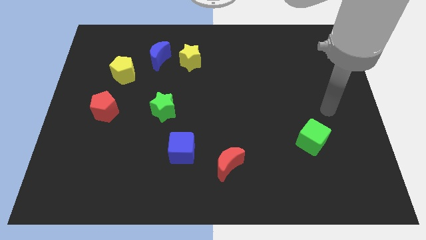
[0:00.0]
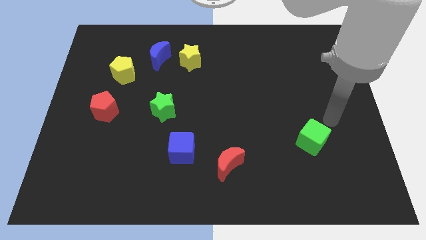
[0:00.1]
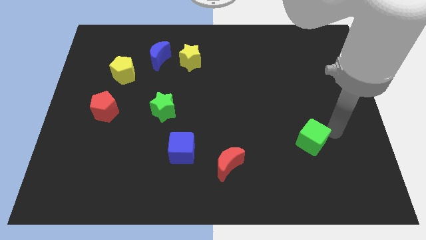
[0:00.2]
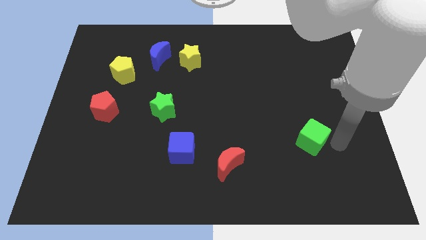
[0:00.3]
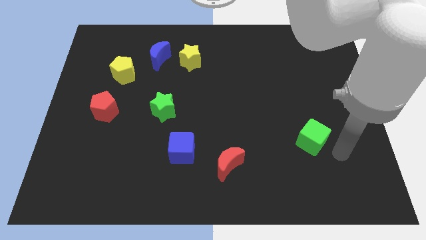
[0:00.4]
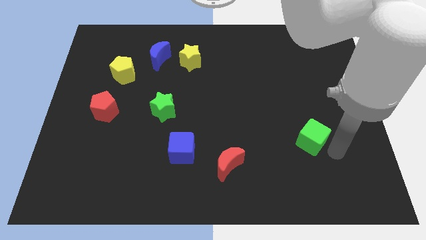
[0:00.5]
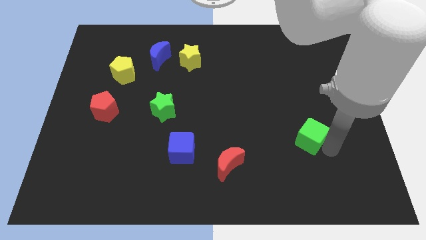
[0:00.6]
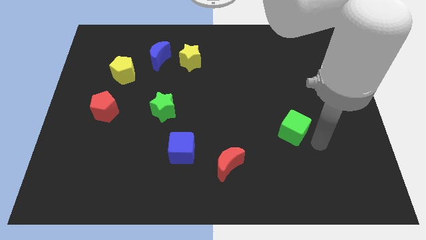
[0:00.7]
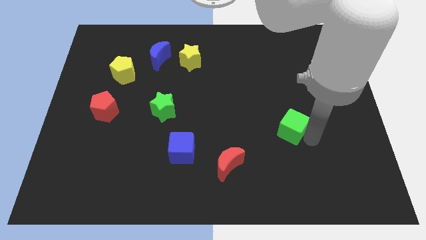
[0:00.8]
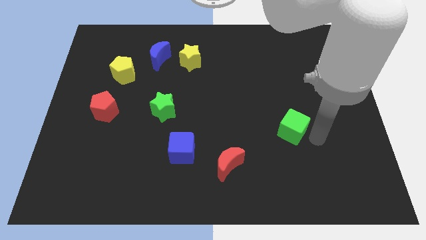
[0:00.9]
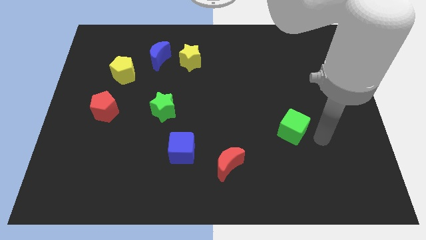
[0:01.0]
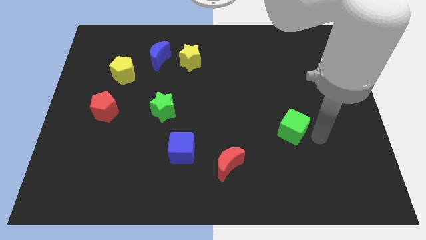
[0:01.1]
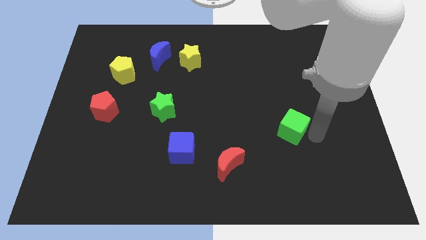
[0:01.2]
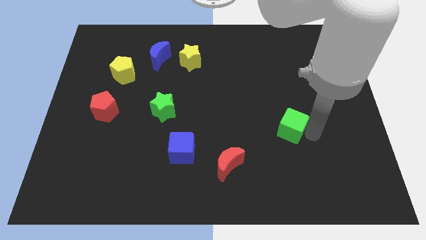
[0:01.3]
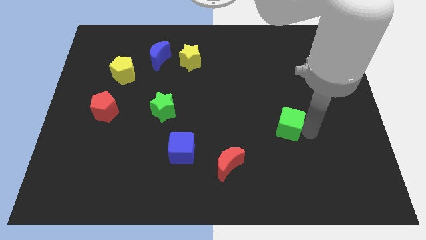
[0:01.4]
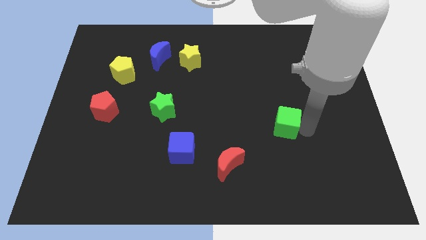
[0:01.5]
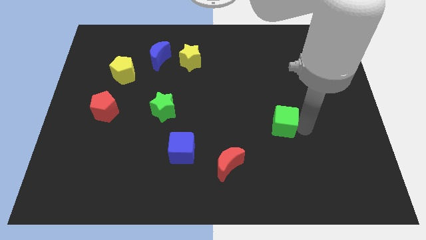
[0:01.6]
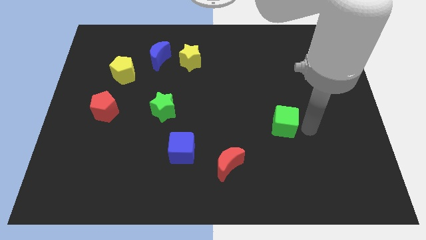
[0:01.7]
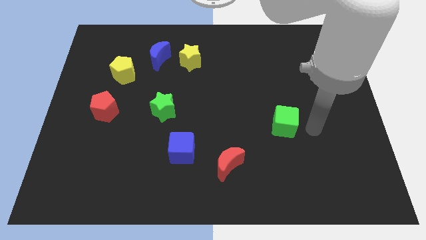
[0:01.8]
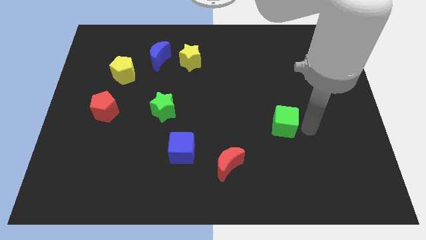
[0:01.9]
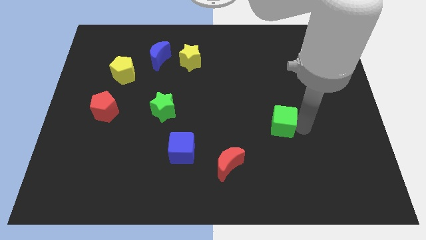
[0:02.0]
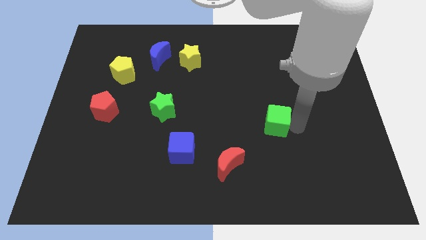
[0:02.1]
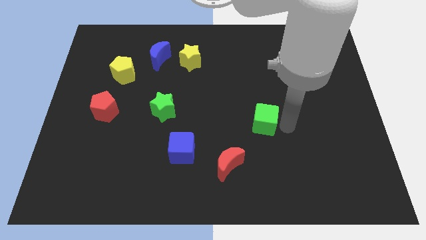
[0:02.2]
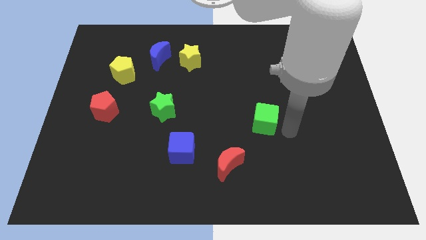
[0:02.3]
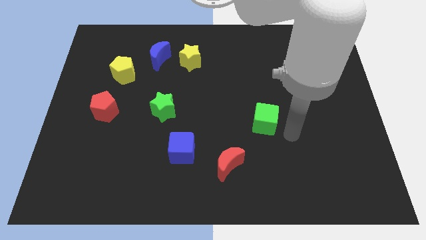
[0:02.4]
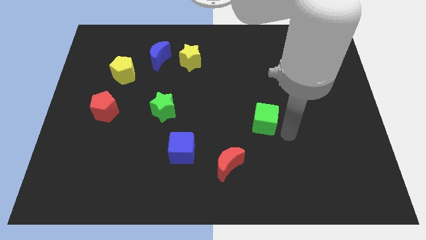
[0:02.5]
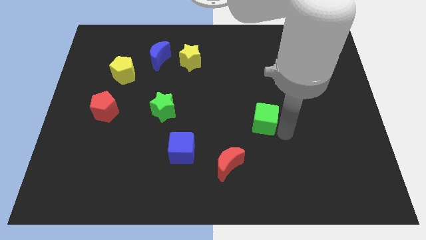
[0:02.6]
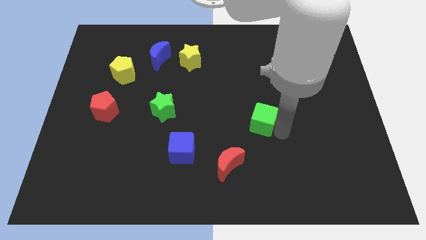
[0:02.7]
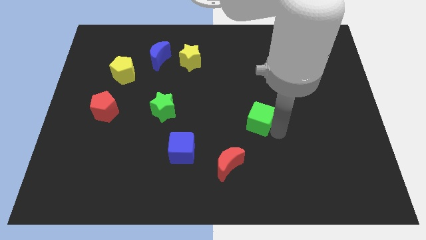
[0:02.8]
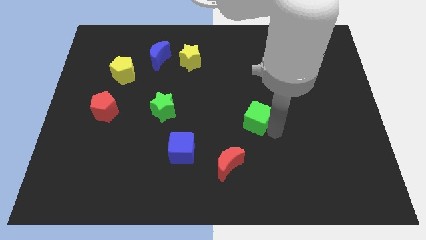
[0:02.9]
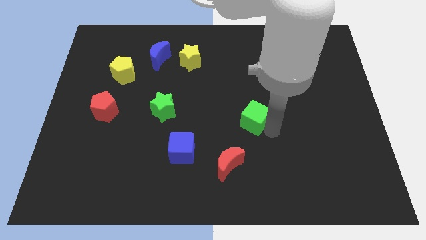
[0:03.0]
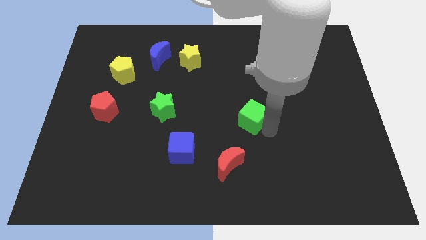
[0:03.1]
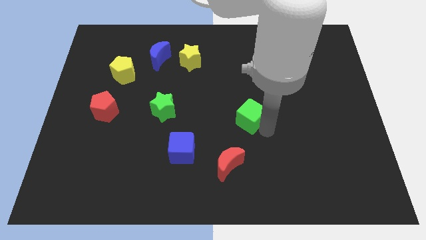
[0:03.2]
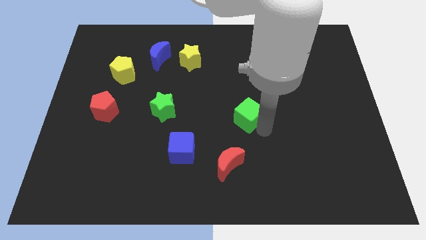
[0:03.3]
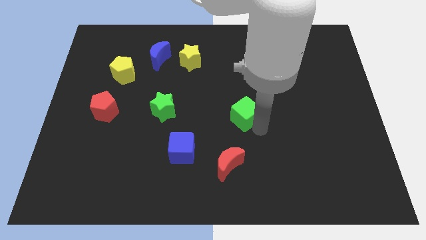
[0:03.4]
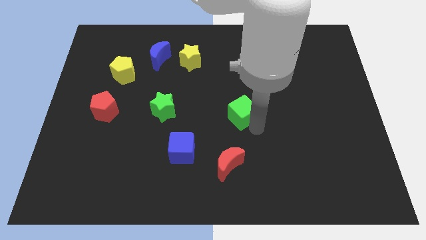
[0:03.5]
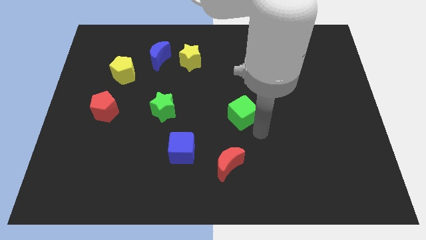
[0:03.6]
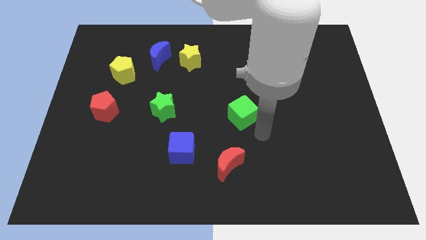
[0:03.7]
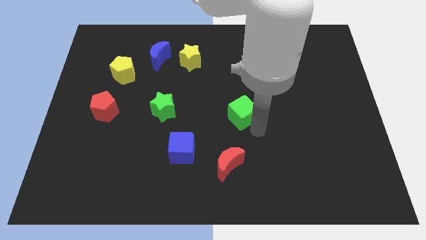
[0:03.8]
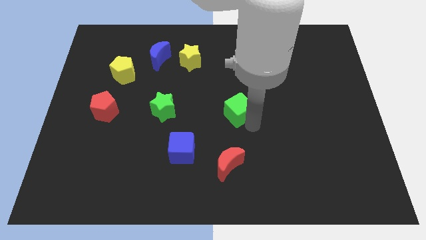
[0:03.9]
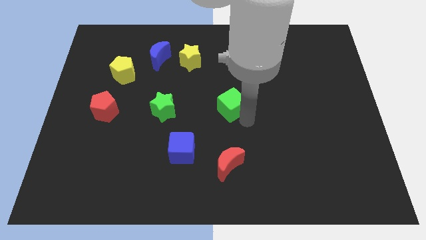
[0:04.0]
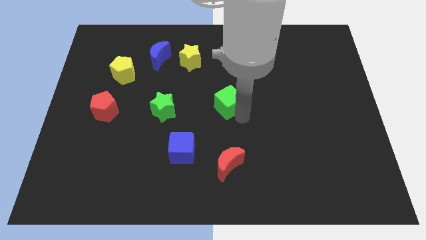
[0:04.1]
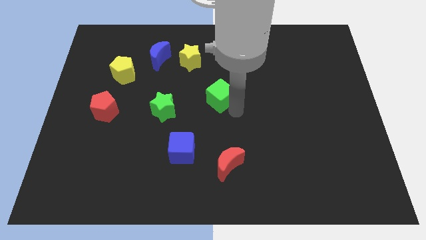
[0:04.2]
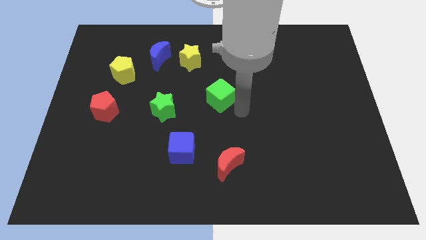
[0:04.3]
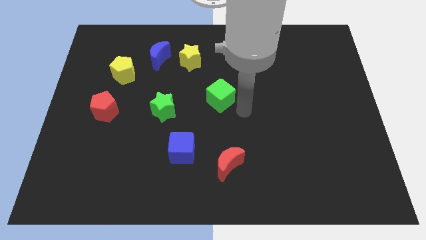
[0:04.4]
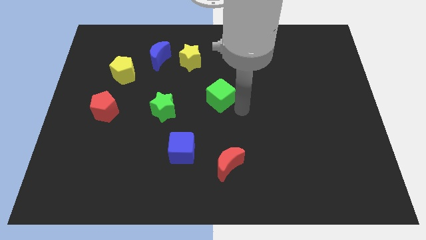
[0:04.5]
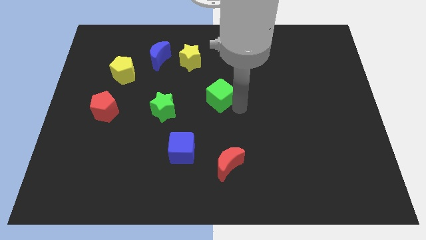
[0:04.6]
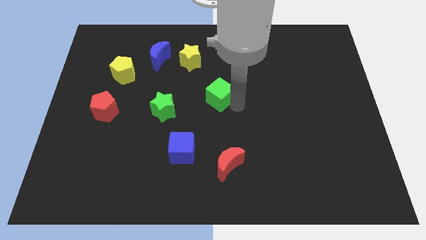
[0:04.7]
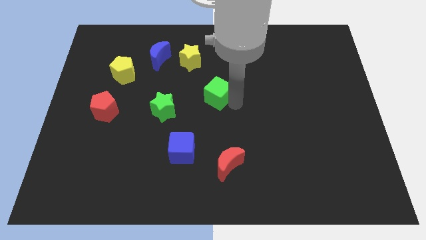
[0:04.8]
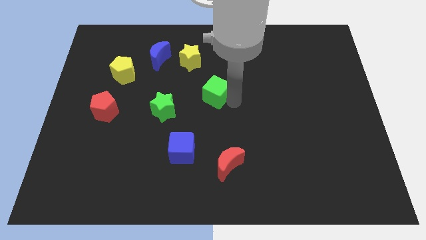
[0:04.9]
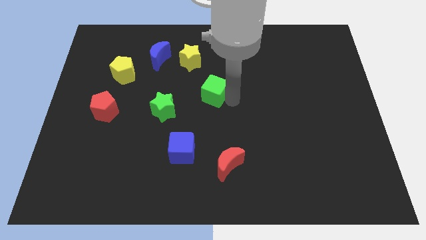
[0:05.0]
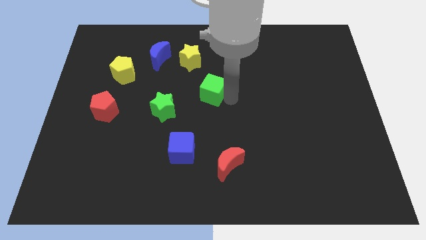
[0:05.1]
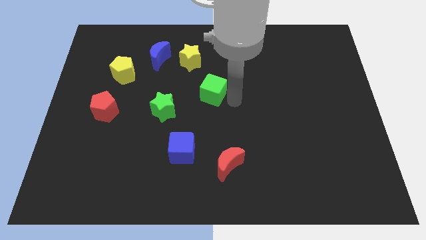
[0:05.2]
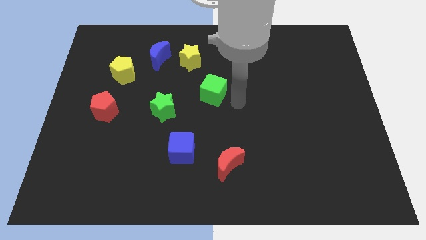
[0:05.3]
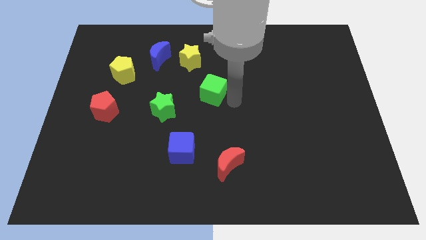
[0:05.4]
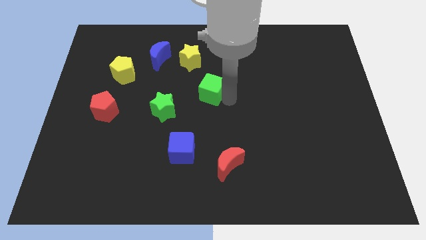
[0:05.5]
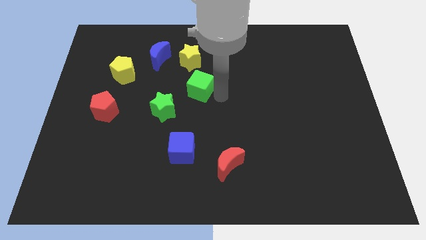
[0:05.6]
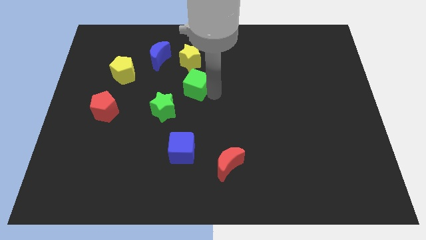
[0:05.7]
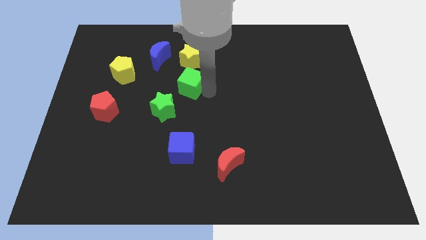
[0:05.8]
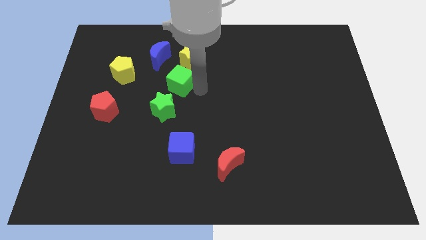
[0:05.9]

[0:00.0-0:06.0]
put the green cube just right of the yellow pentagon

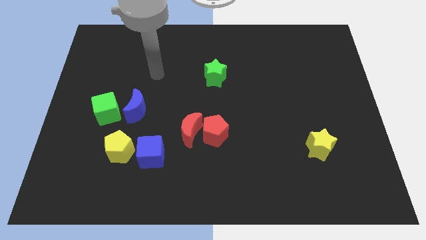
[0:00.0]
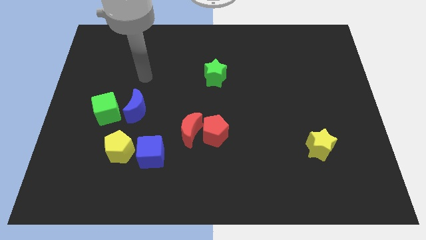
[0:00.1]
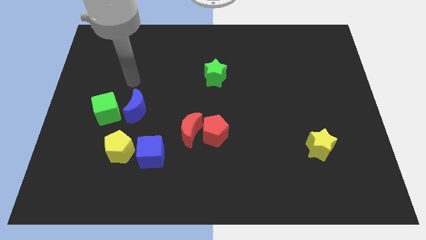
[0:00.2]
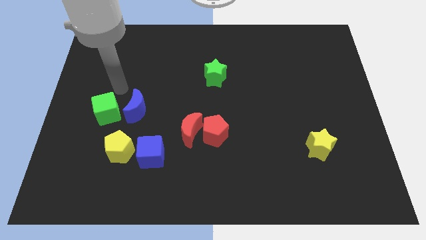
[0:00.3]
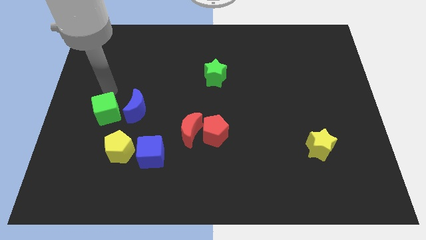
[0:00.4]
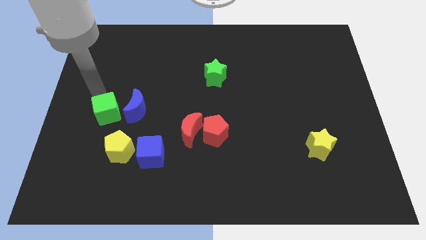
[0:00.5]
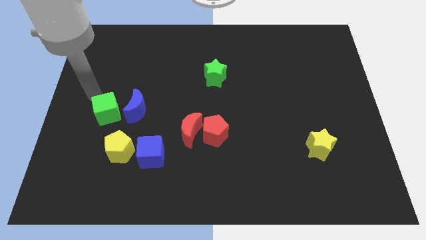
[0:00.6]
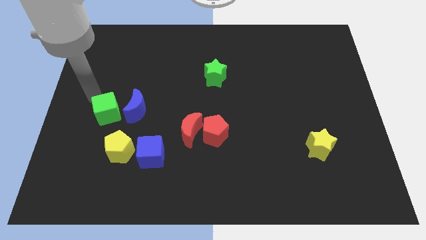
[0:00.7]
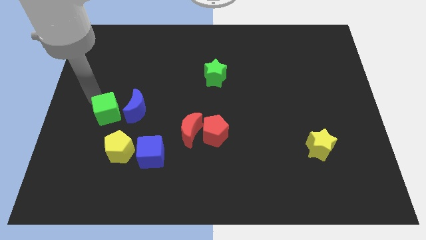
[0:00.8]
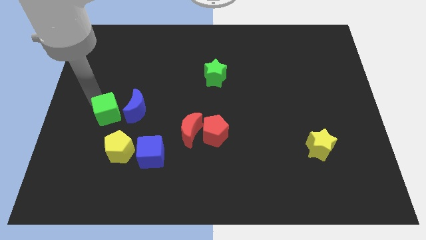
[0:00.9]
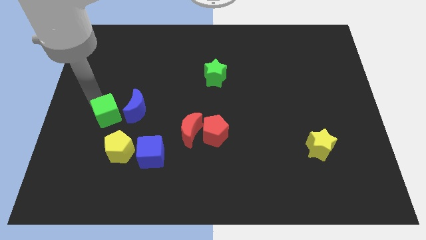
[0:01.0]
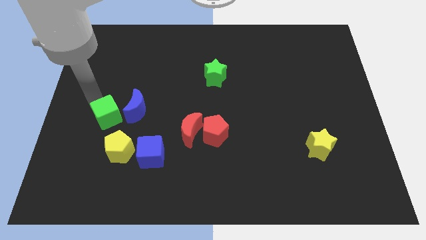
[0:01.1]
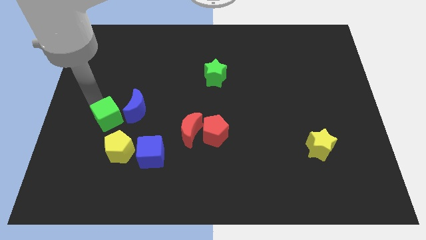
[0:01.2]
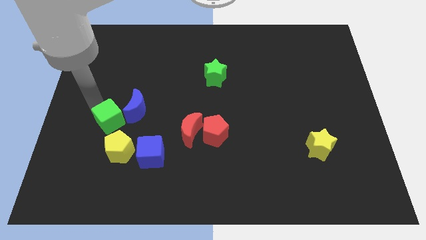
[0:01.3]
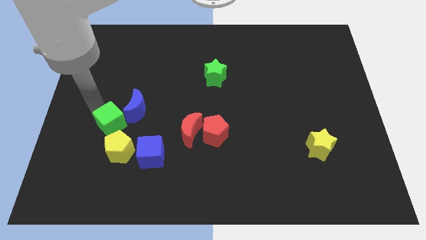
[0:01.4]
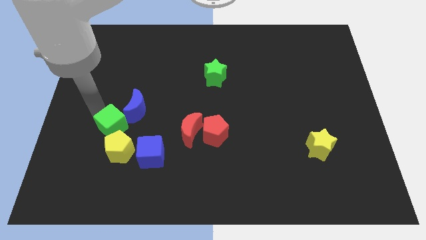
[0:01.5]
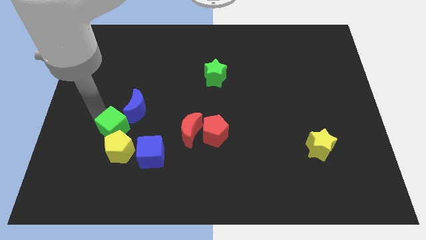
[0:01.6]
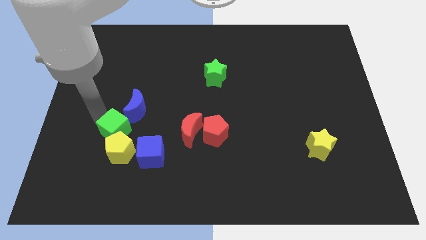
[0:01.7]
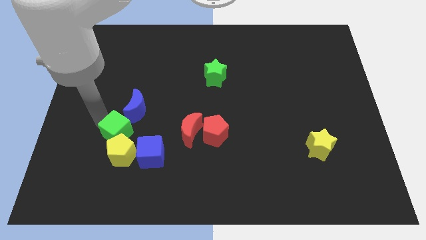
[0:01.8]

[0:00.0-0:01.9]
put the green cube just left of the red moon

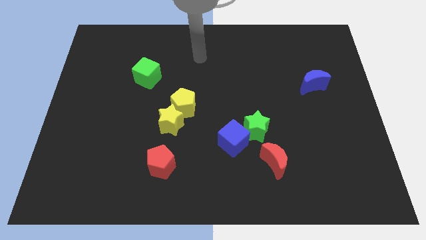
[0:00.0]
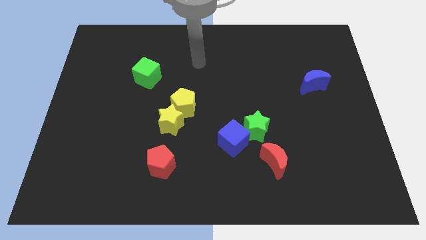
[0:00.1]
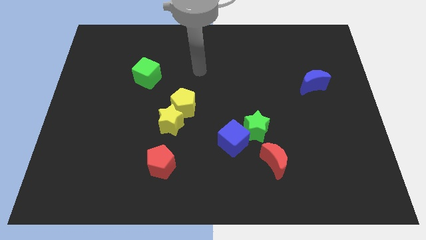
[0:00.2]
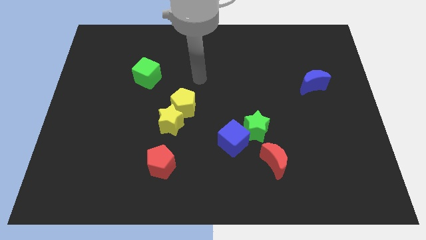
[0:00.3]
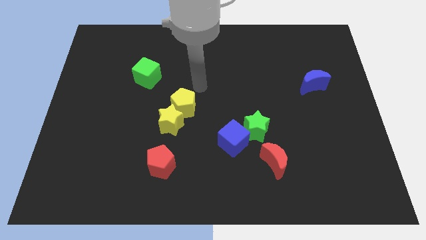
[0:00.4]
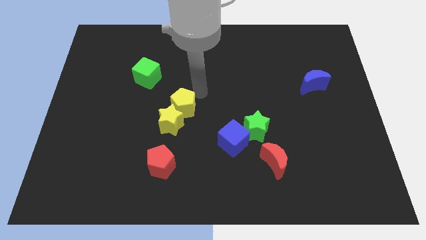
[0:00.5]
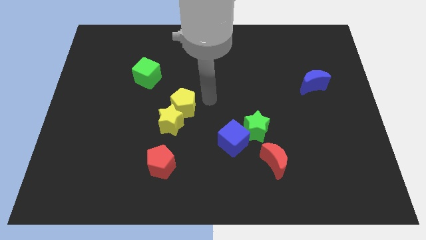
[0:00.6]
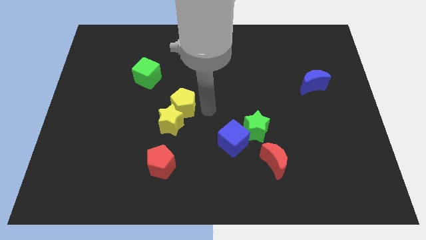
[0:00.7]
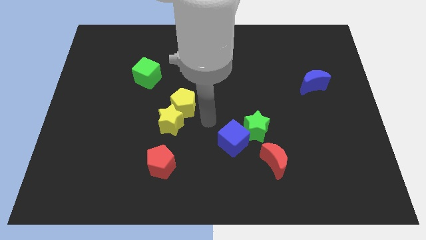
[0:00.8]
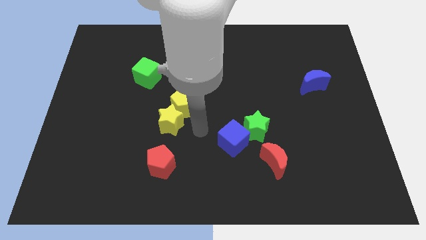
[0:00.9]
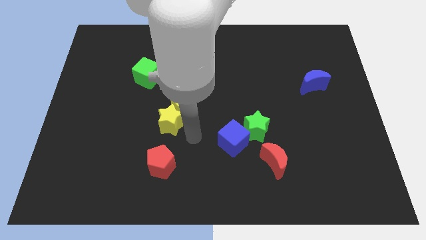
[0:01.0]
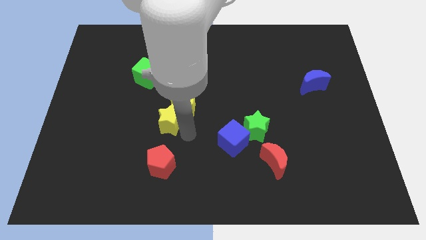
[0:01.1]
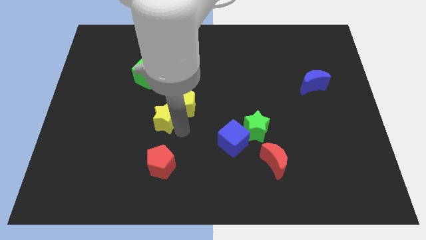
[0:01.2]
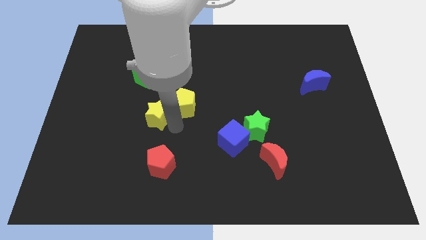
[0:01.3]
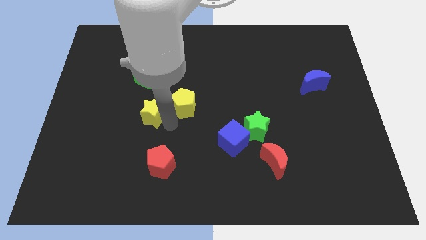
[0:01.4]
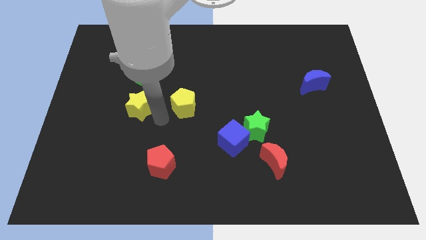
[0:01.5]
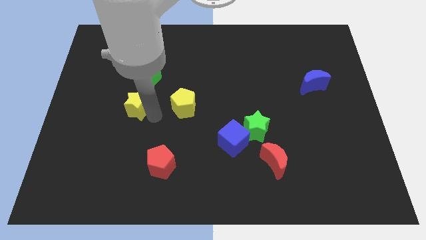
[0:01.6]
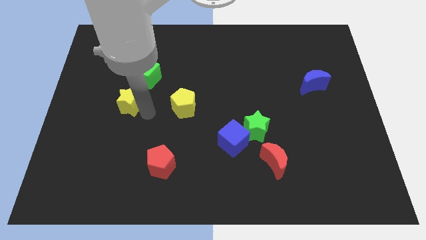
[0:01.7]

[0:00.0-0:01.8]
move the yellow star diagonally down and to the left of the green cube
